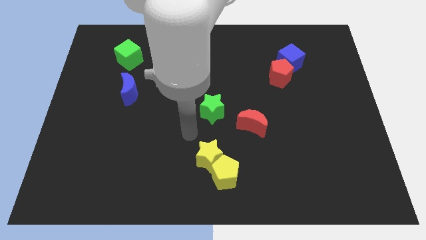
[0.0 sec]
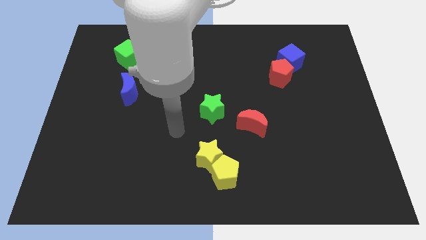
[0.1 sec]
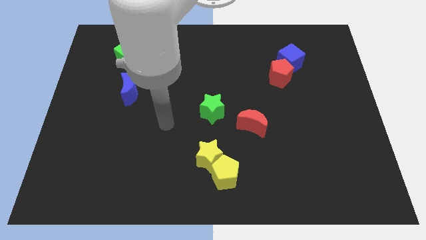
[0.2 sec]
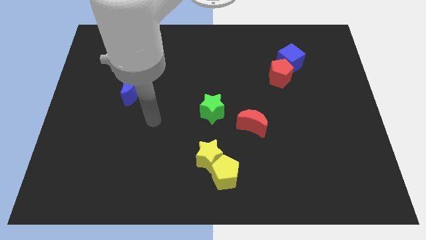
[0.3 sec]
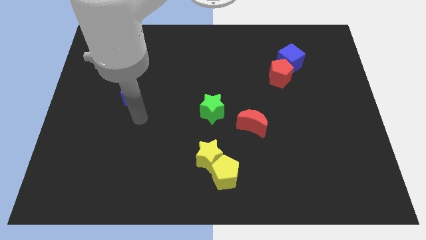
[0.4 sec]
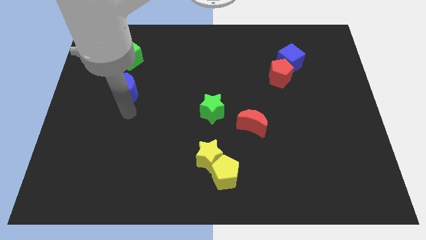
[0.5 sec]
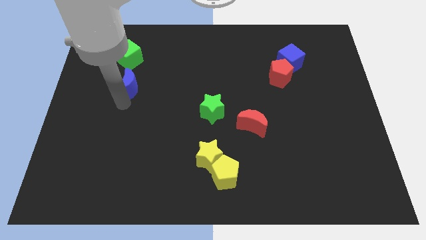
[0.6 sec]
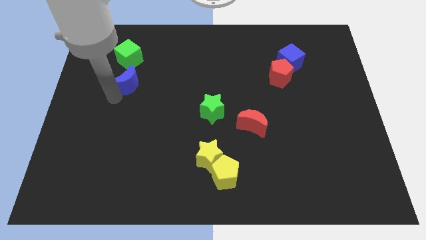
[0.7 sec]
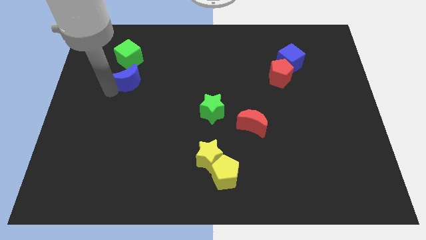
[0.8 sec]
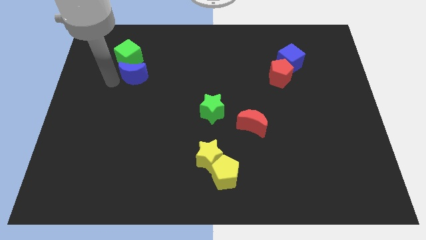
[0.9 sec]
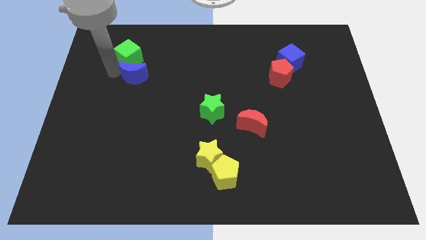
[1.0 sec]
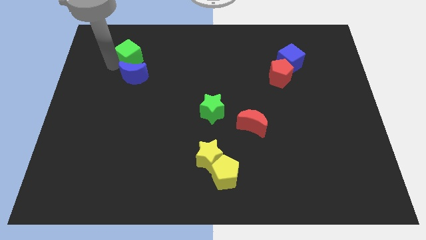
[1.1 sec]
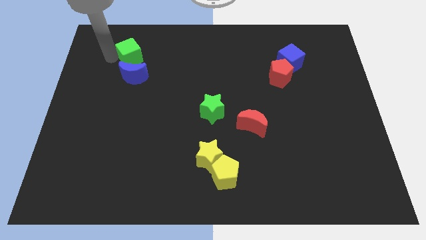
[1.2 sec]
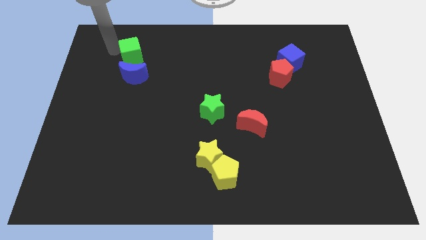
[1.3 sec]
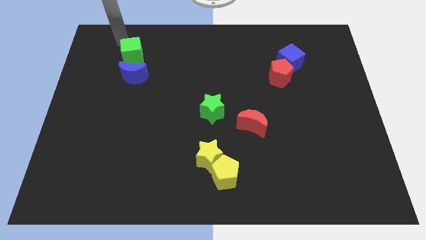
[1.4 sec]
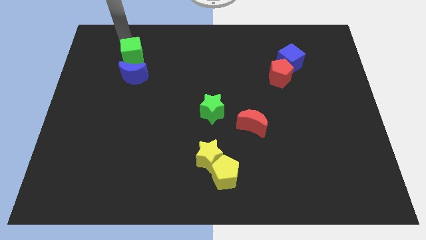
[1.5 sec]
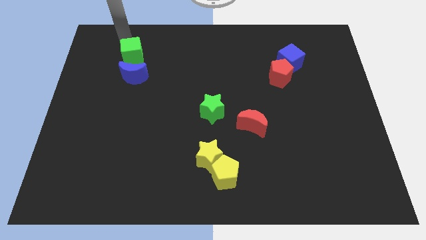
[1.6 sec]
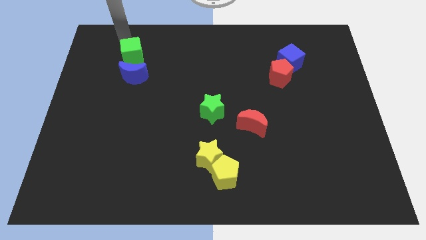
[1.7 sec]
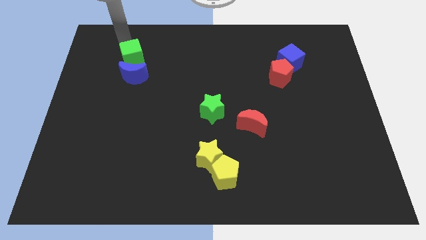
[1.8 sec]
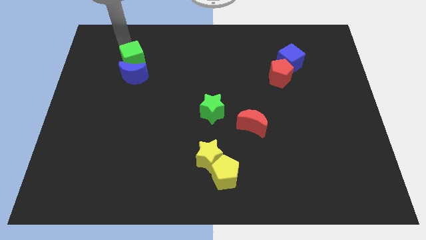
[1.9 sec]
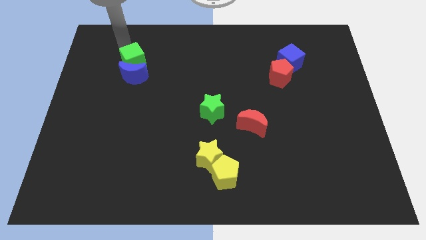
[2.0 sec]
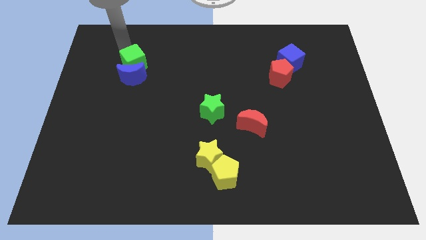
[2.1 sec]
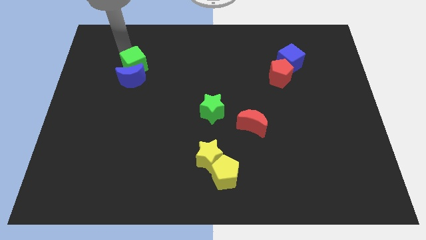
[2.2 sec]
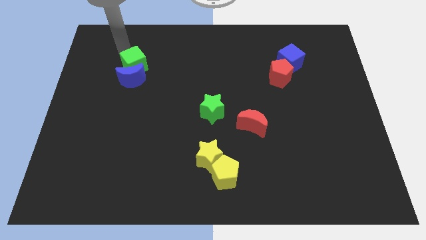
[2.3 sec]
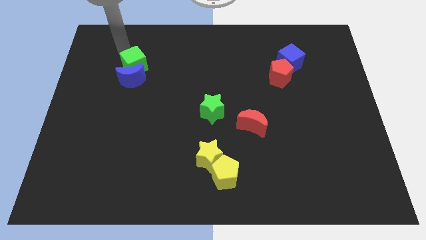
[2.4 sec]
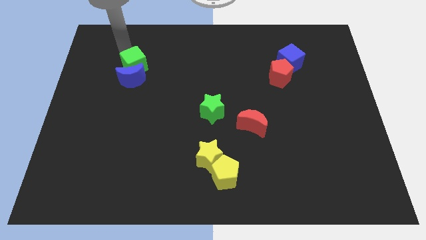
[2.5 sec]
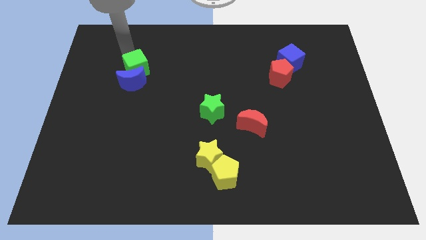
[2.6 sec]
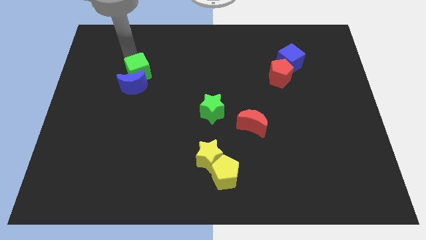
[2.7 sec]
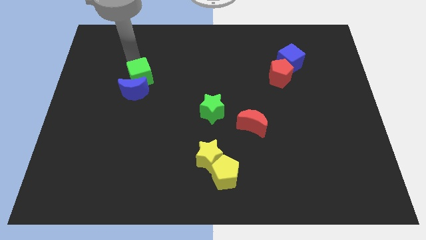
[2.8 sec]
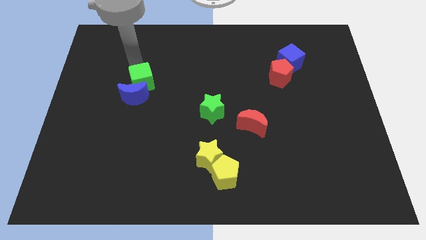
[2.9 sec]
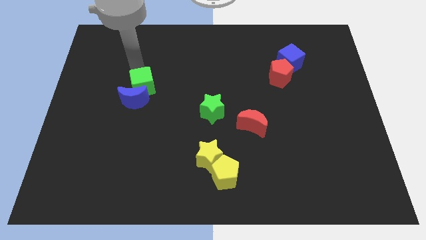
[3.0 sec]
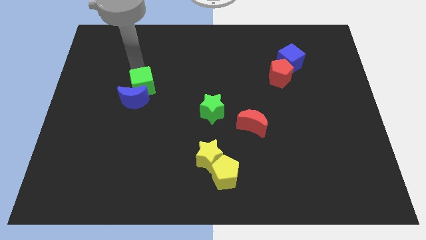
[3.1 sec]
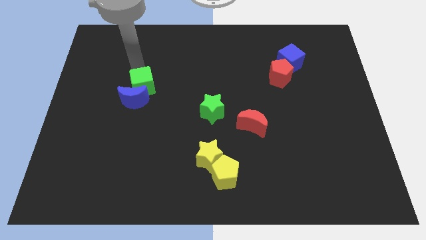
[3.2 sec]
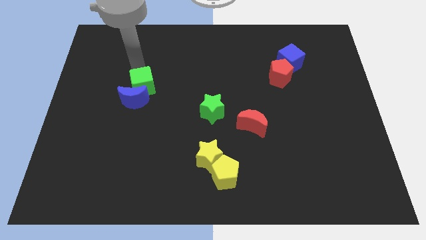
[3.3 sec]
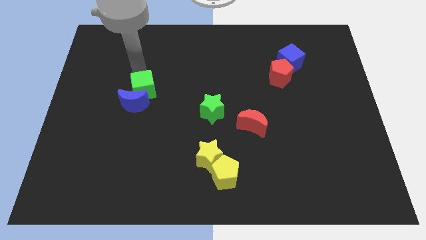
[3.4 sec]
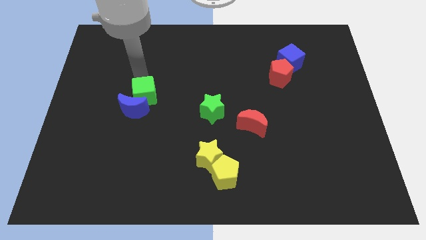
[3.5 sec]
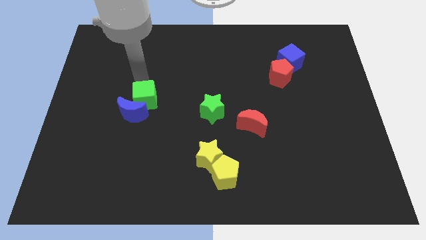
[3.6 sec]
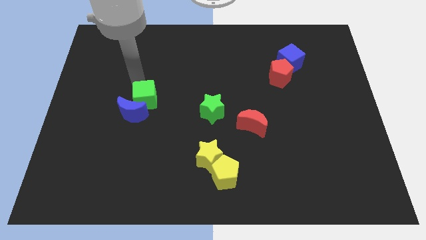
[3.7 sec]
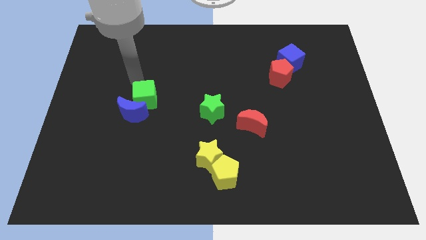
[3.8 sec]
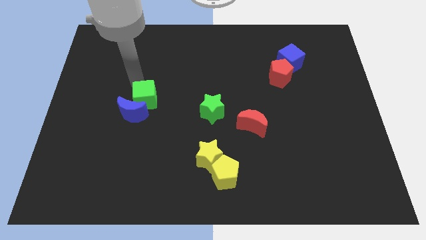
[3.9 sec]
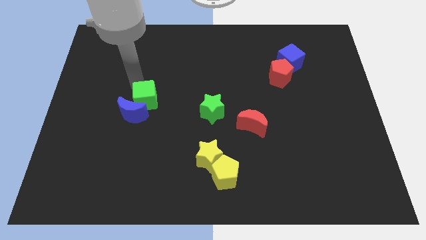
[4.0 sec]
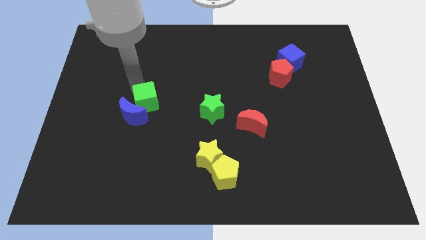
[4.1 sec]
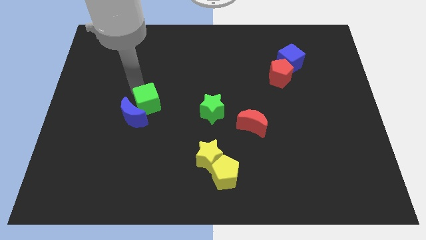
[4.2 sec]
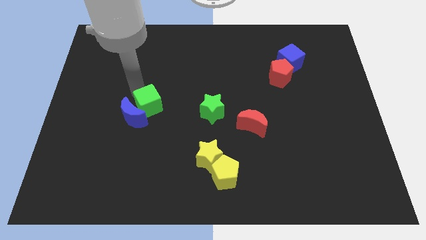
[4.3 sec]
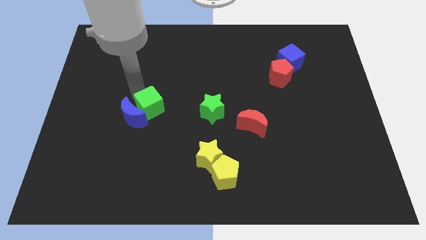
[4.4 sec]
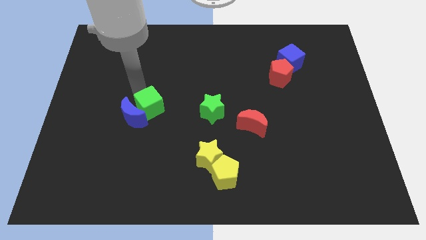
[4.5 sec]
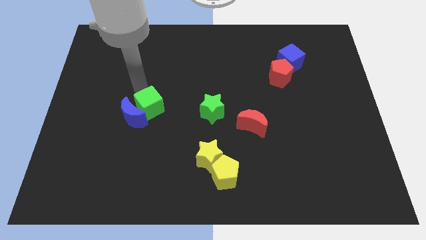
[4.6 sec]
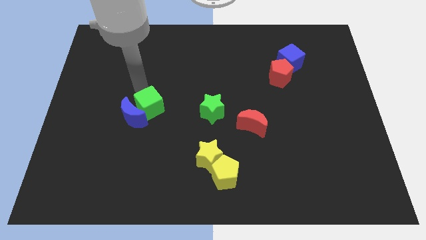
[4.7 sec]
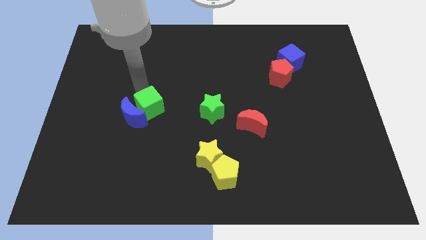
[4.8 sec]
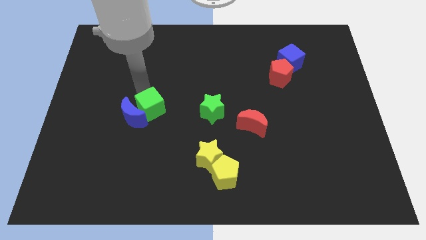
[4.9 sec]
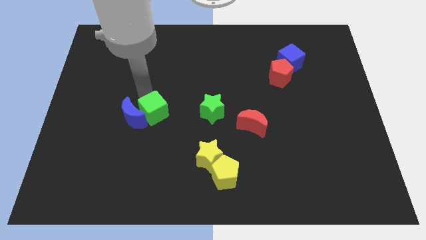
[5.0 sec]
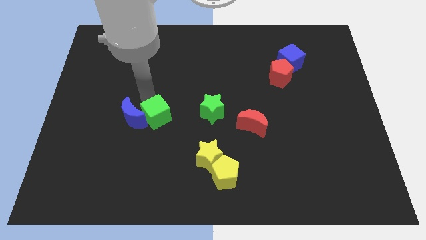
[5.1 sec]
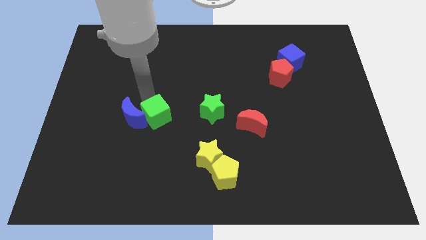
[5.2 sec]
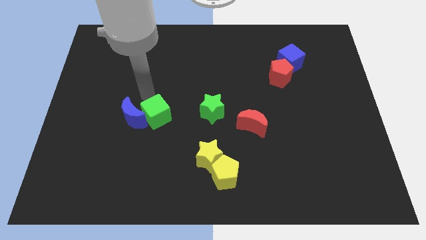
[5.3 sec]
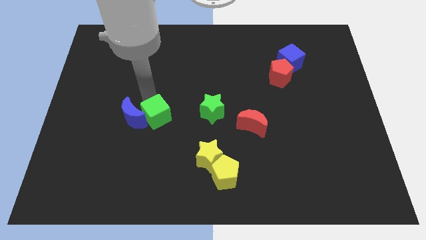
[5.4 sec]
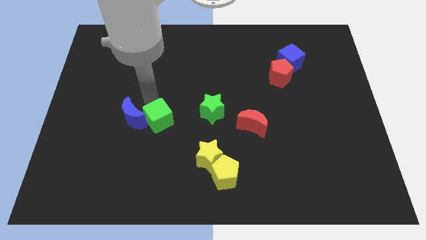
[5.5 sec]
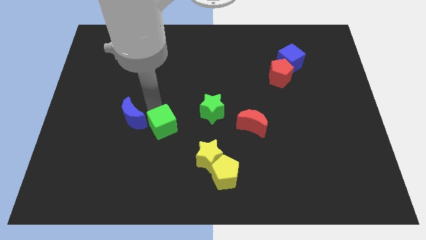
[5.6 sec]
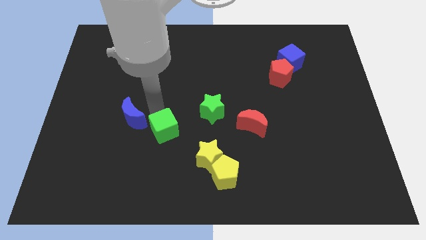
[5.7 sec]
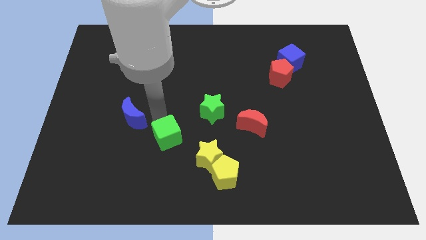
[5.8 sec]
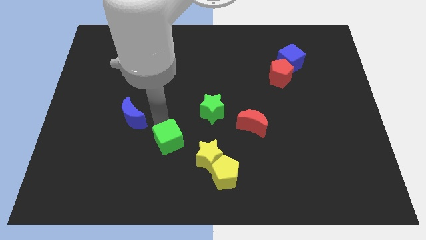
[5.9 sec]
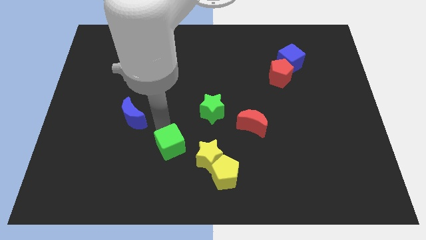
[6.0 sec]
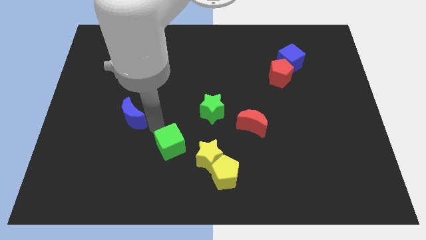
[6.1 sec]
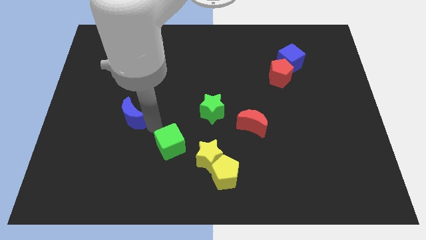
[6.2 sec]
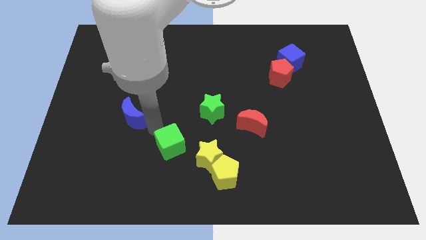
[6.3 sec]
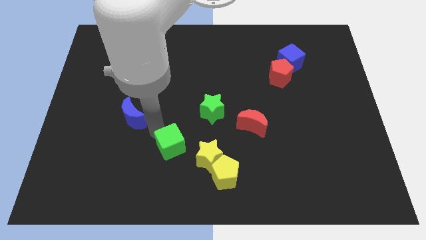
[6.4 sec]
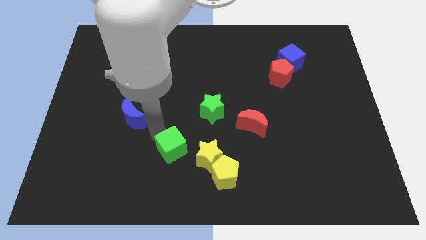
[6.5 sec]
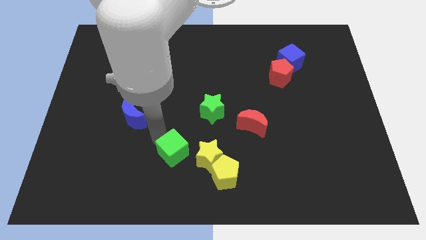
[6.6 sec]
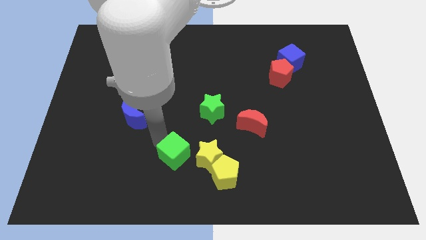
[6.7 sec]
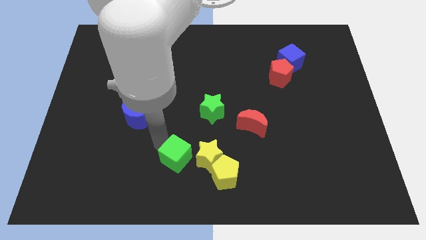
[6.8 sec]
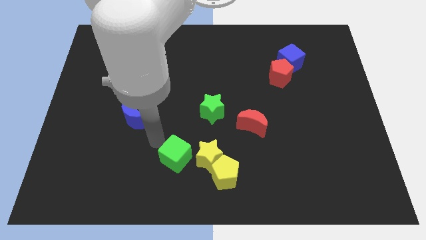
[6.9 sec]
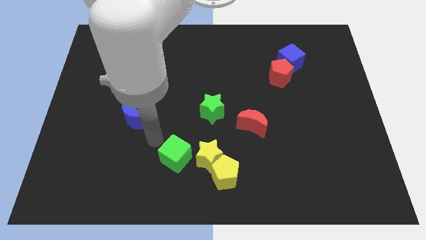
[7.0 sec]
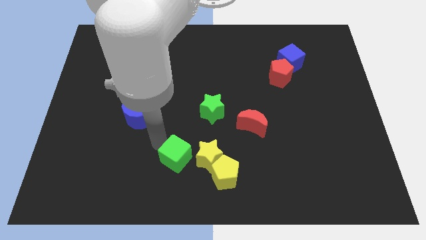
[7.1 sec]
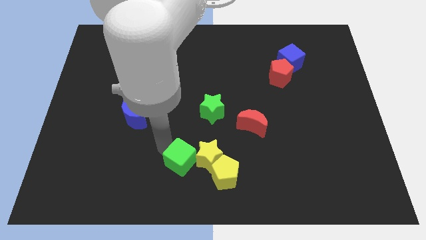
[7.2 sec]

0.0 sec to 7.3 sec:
slide the green cube to the bottom side
